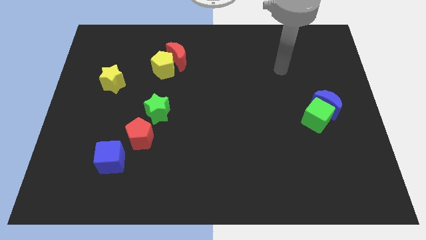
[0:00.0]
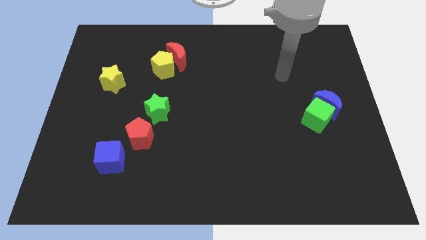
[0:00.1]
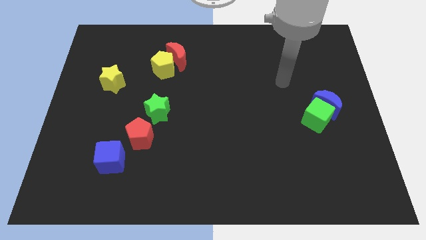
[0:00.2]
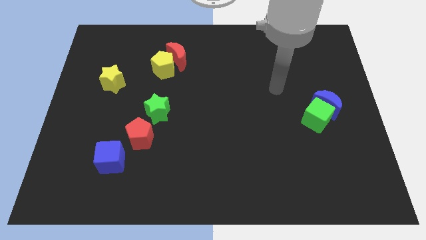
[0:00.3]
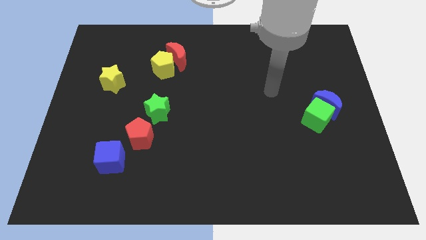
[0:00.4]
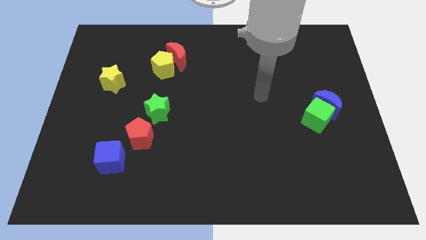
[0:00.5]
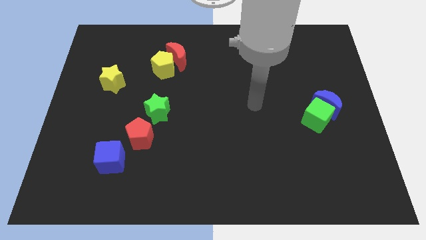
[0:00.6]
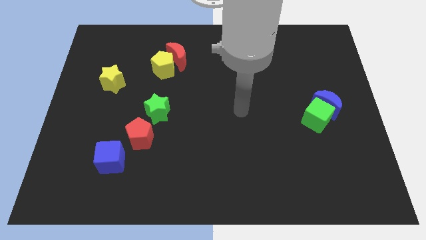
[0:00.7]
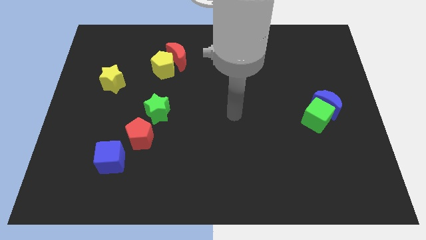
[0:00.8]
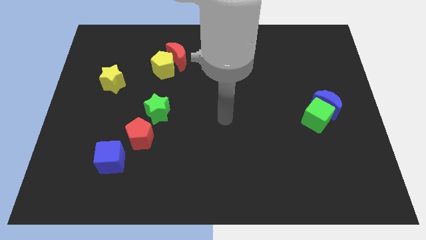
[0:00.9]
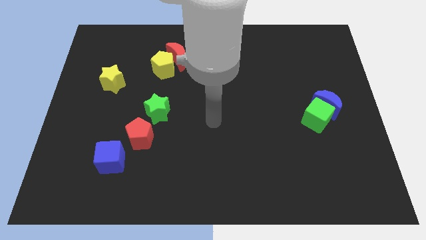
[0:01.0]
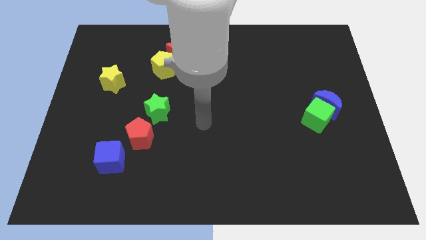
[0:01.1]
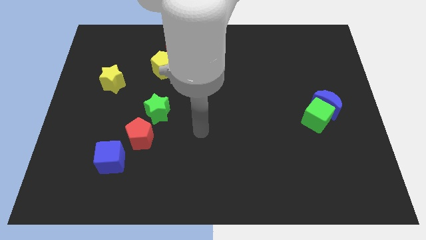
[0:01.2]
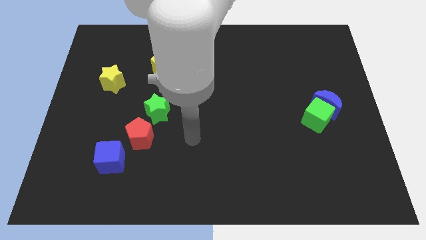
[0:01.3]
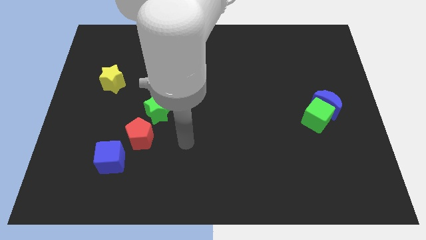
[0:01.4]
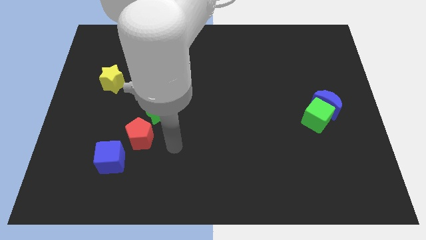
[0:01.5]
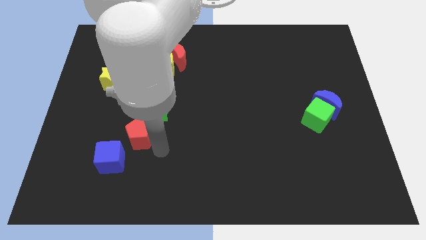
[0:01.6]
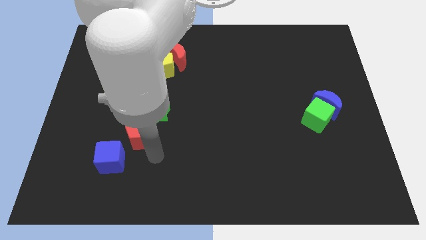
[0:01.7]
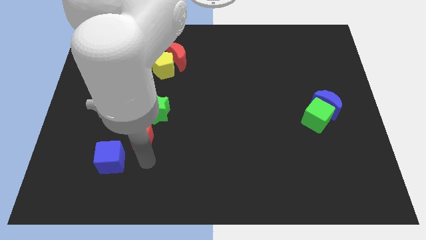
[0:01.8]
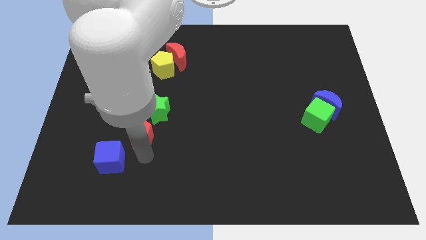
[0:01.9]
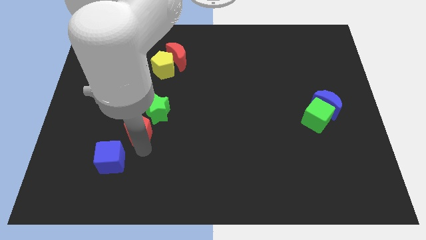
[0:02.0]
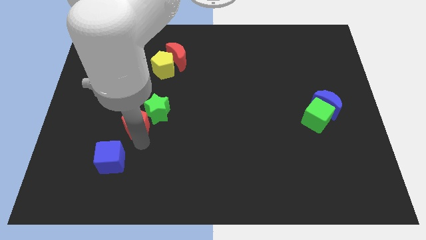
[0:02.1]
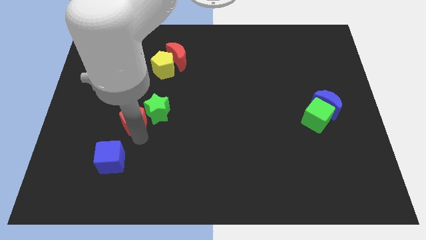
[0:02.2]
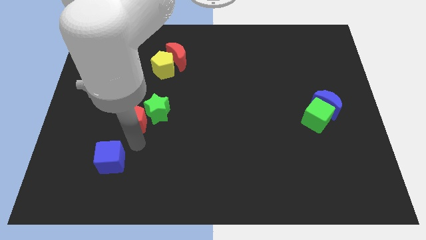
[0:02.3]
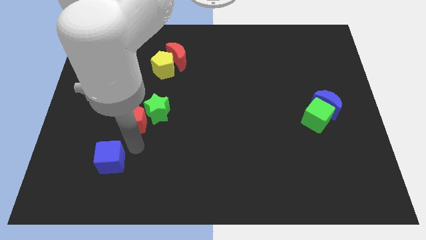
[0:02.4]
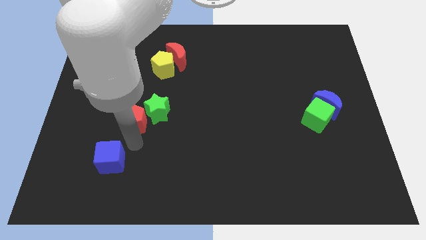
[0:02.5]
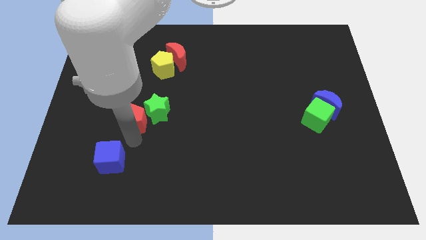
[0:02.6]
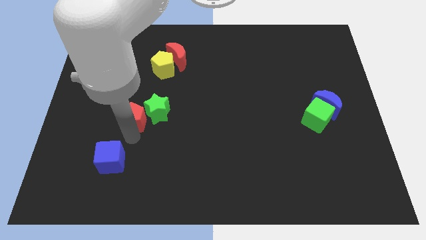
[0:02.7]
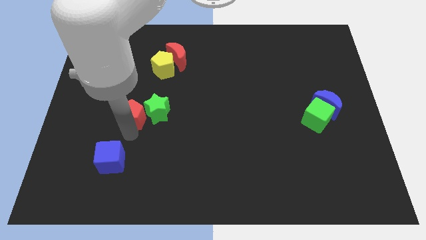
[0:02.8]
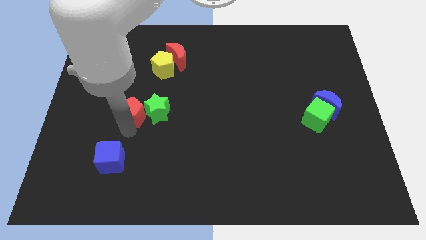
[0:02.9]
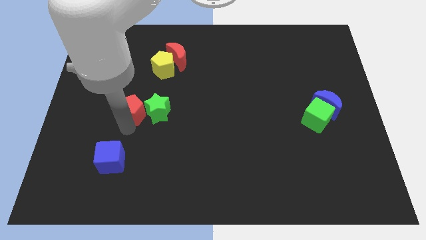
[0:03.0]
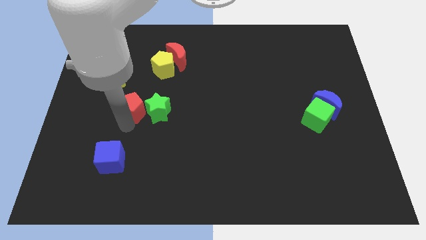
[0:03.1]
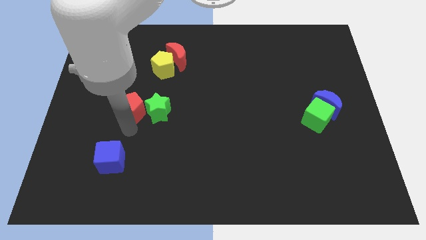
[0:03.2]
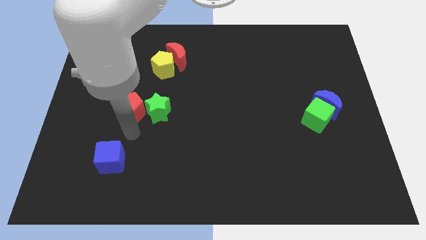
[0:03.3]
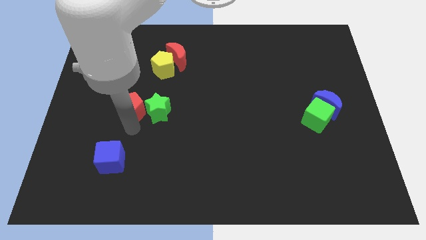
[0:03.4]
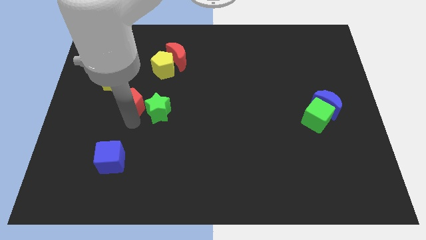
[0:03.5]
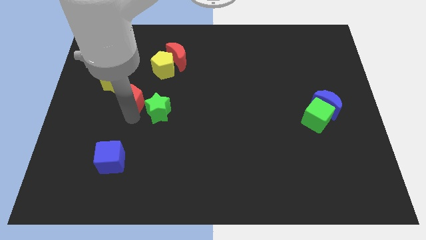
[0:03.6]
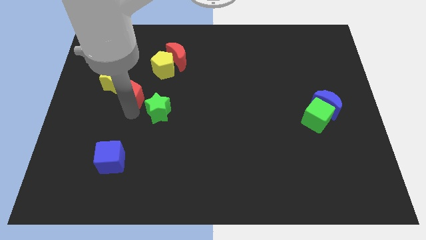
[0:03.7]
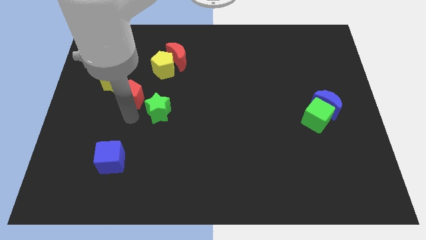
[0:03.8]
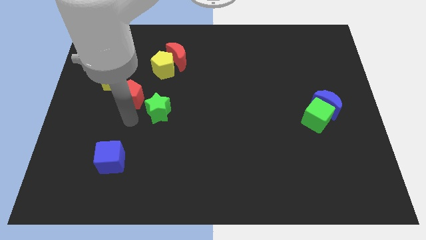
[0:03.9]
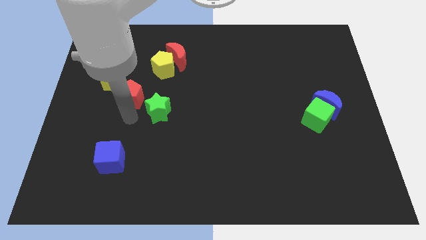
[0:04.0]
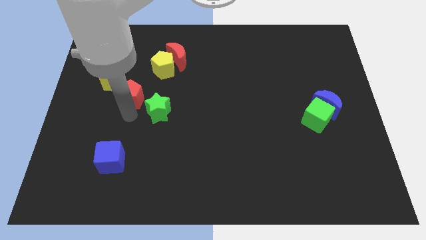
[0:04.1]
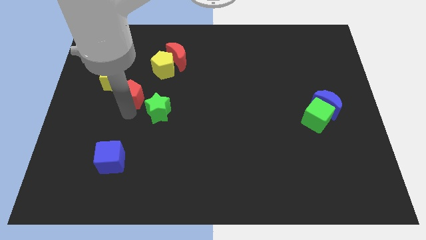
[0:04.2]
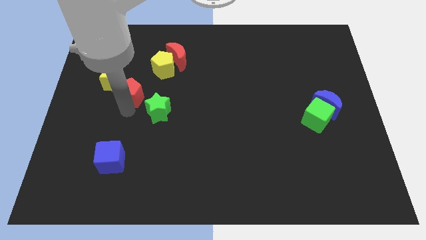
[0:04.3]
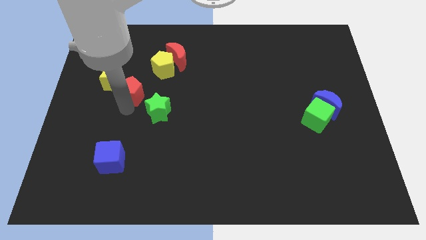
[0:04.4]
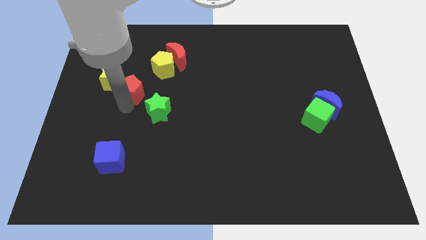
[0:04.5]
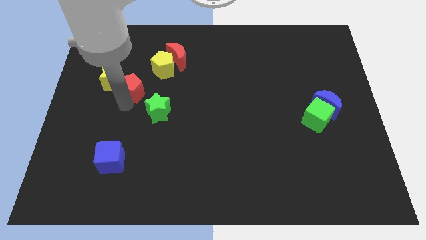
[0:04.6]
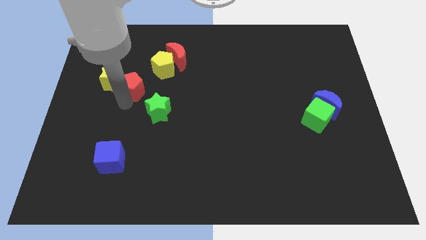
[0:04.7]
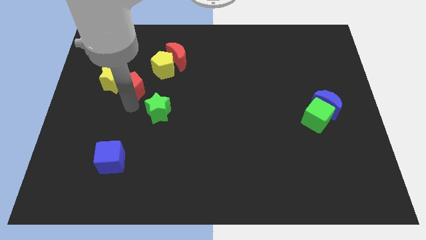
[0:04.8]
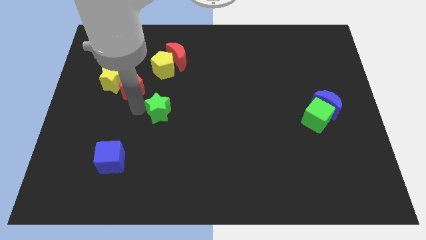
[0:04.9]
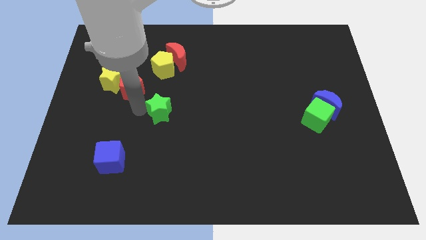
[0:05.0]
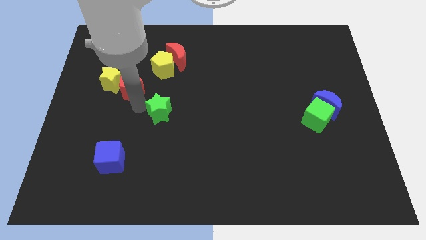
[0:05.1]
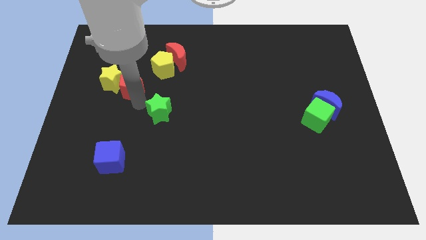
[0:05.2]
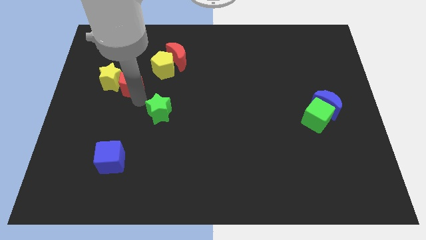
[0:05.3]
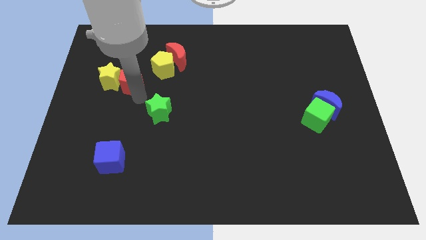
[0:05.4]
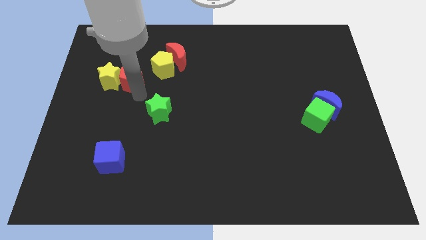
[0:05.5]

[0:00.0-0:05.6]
put the red pentagon just left of the yellow pentagon
